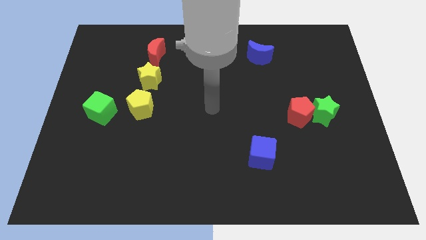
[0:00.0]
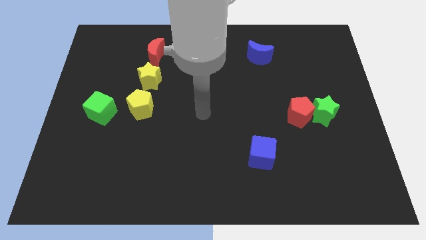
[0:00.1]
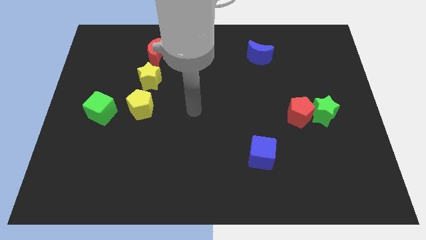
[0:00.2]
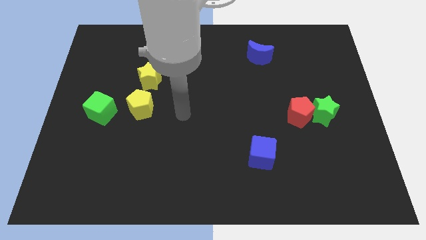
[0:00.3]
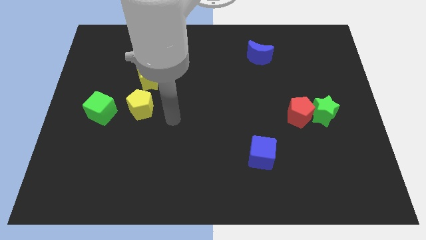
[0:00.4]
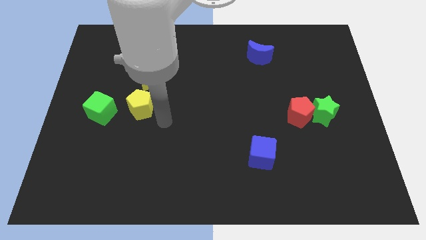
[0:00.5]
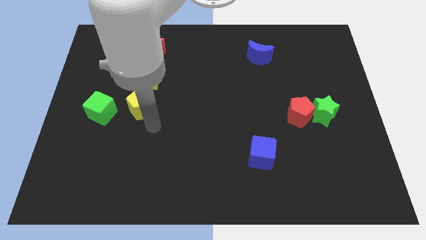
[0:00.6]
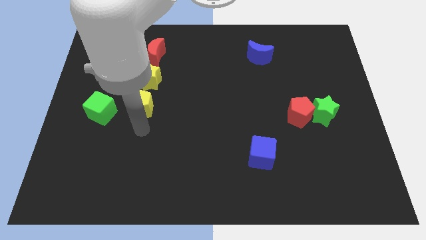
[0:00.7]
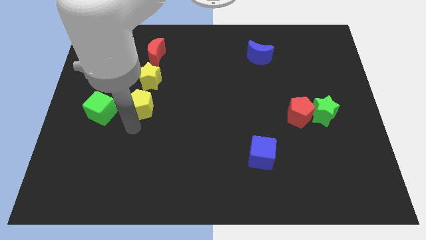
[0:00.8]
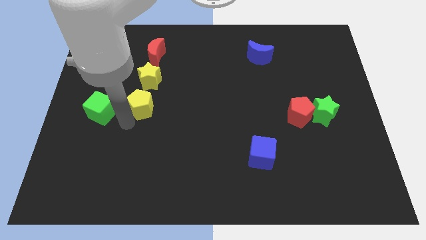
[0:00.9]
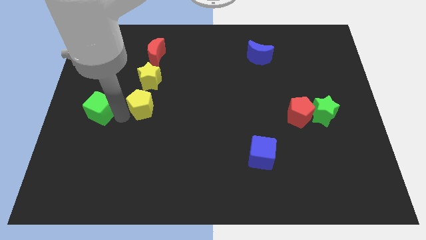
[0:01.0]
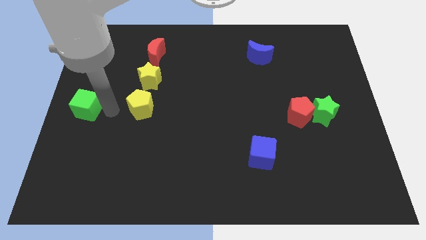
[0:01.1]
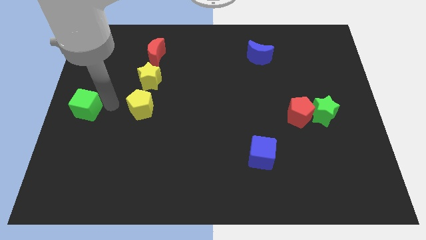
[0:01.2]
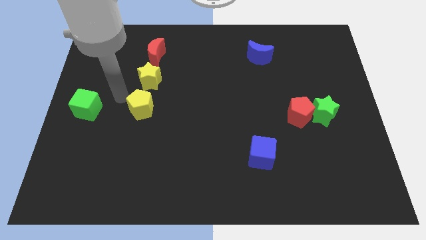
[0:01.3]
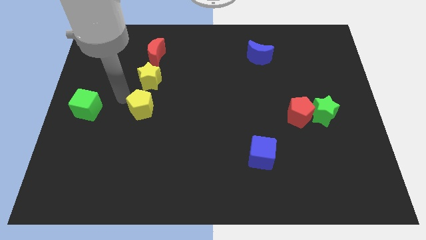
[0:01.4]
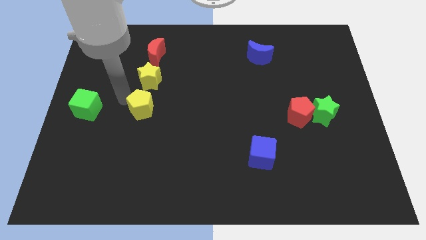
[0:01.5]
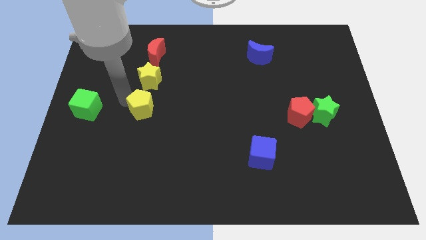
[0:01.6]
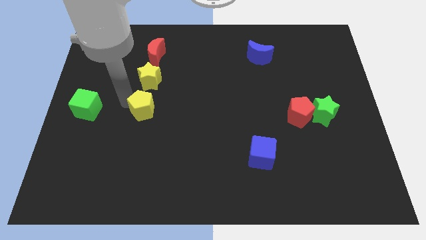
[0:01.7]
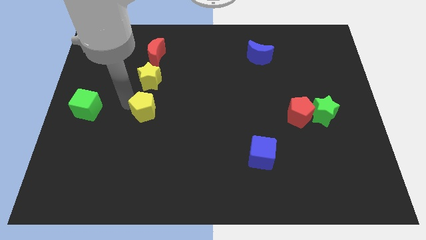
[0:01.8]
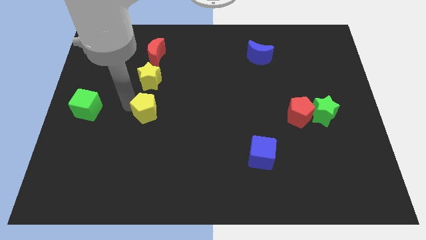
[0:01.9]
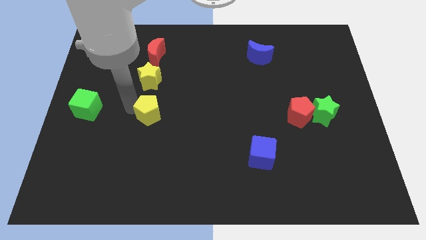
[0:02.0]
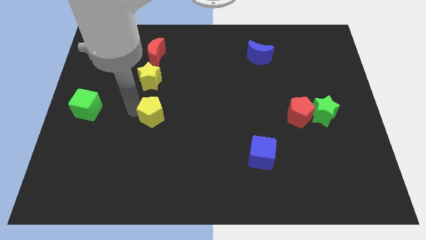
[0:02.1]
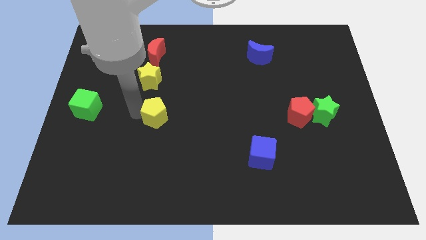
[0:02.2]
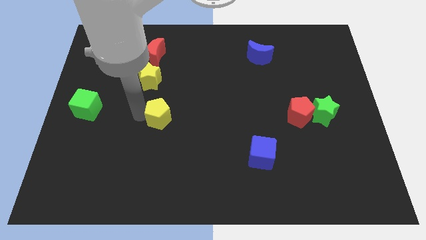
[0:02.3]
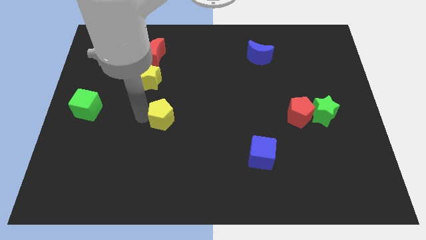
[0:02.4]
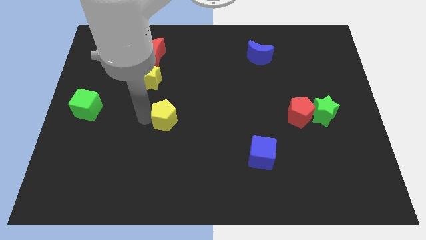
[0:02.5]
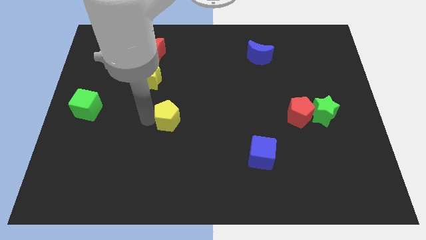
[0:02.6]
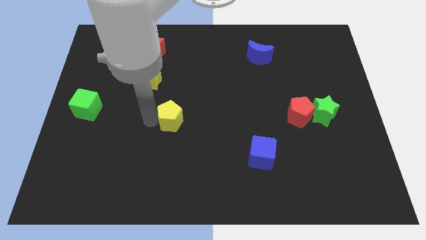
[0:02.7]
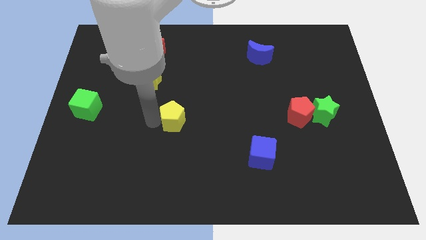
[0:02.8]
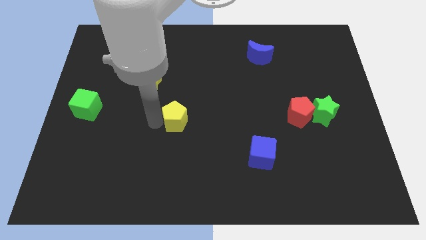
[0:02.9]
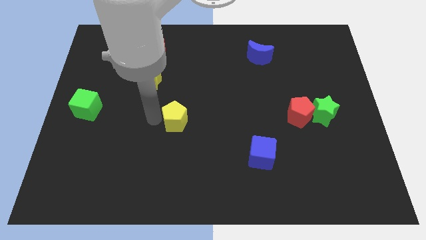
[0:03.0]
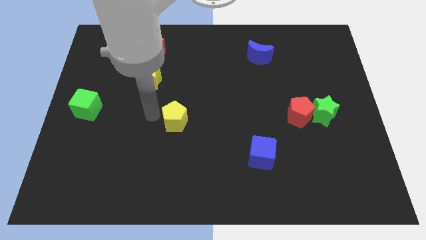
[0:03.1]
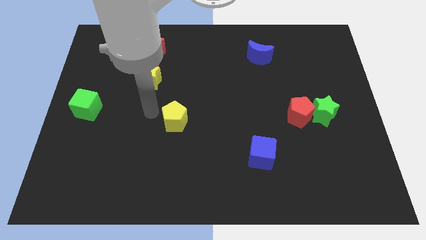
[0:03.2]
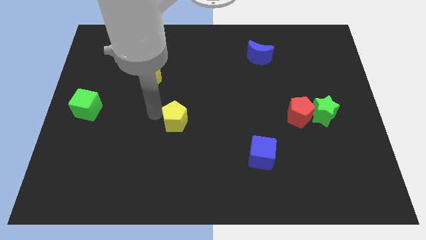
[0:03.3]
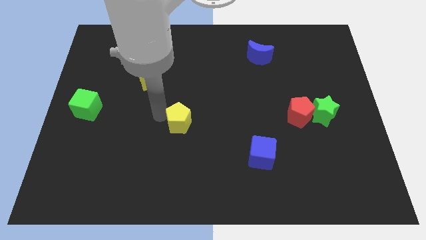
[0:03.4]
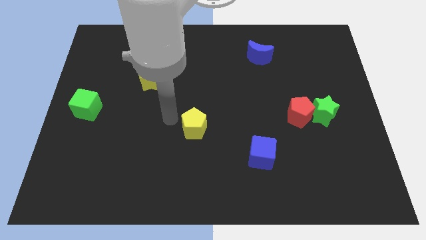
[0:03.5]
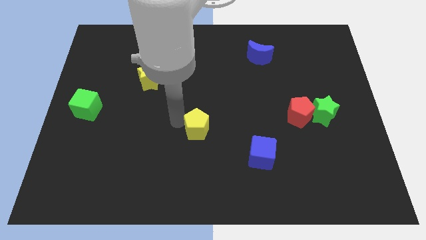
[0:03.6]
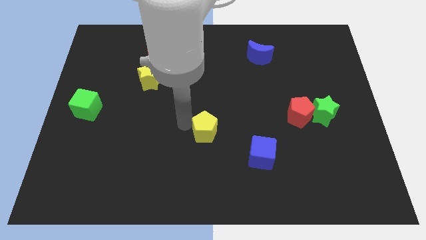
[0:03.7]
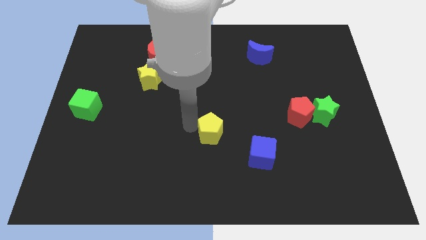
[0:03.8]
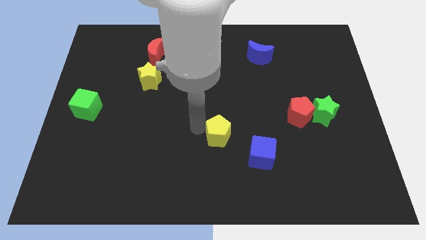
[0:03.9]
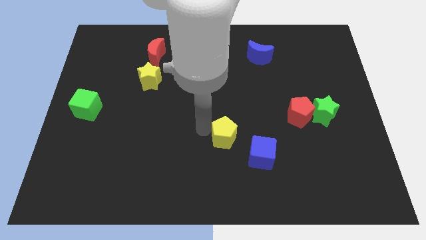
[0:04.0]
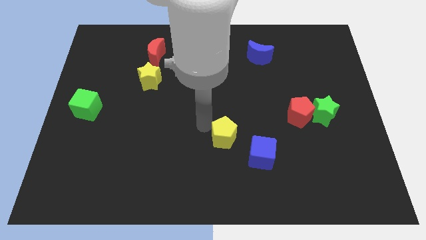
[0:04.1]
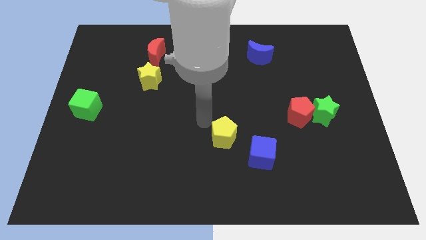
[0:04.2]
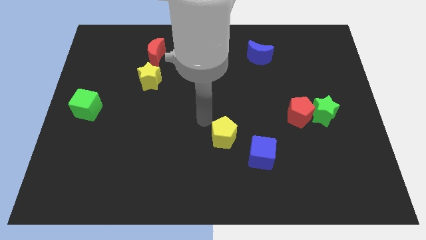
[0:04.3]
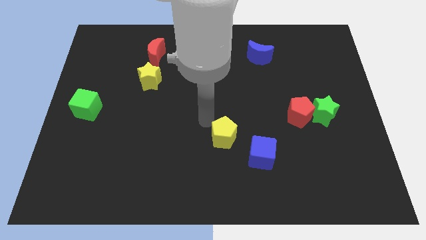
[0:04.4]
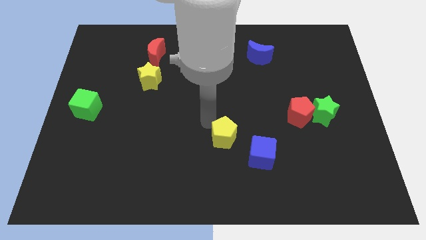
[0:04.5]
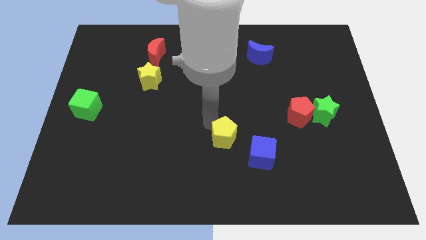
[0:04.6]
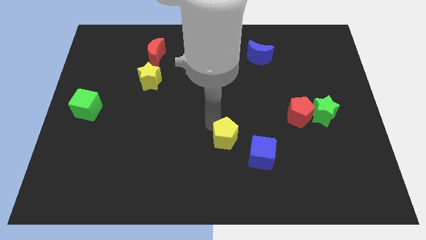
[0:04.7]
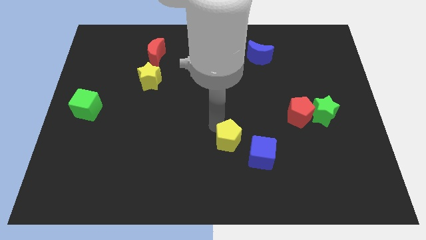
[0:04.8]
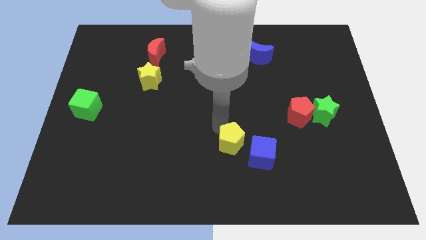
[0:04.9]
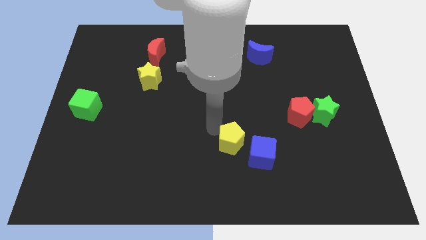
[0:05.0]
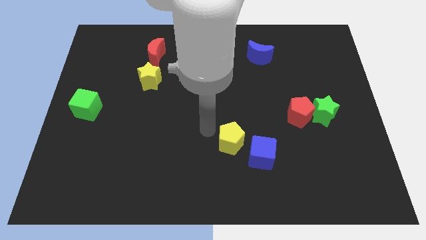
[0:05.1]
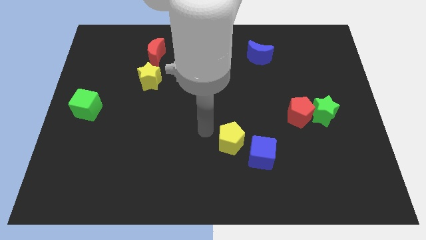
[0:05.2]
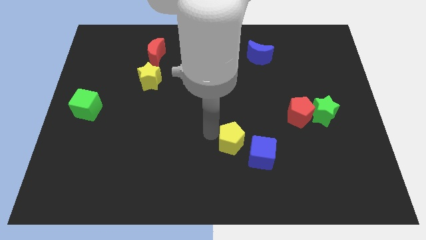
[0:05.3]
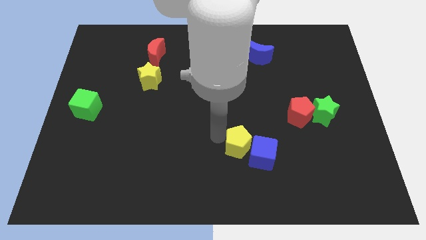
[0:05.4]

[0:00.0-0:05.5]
move the yellow pentagon towards the blue cube

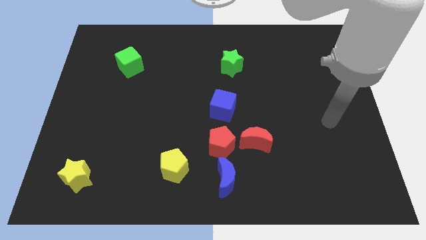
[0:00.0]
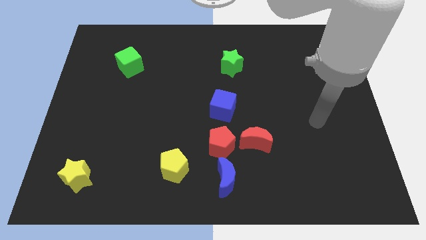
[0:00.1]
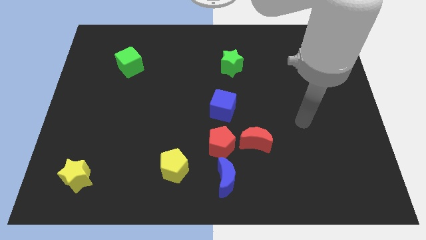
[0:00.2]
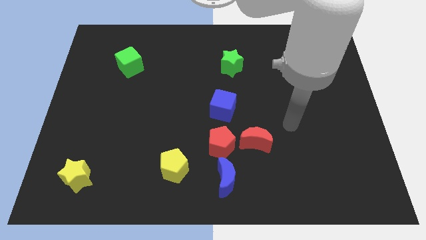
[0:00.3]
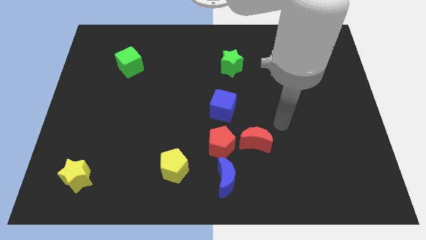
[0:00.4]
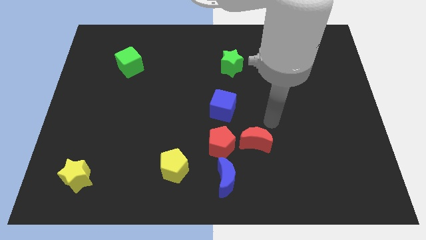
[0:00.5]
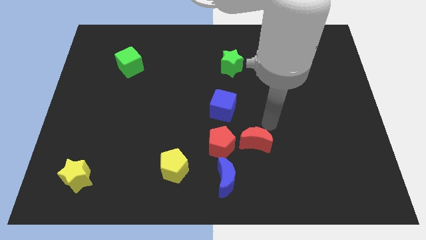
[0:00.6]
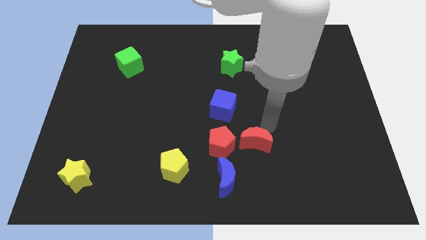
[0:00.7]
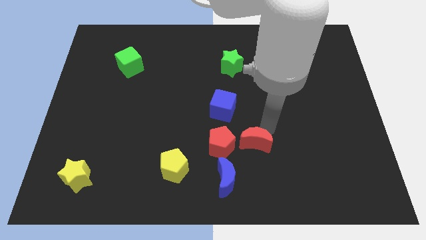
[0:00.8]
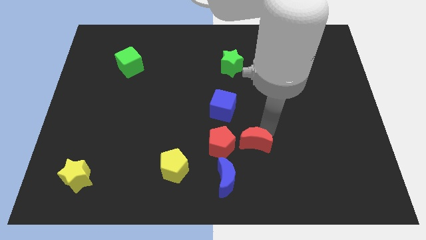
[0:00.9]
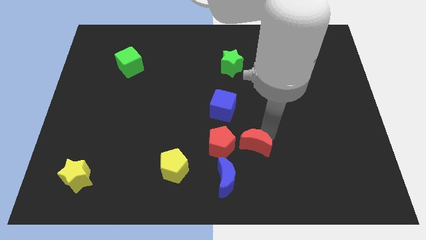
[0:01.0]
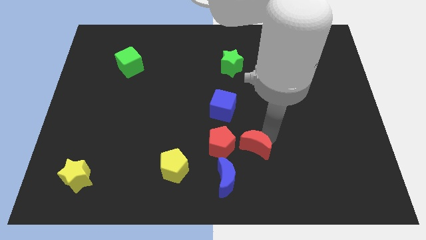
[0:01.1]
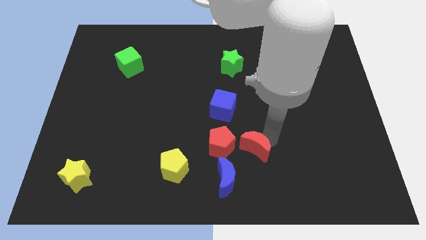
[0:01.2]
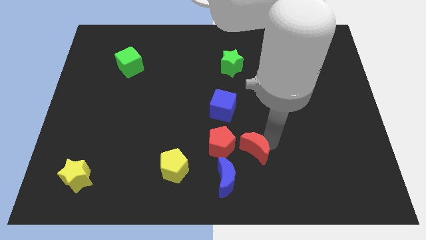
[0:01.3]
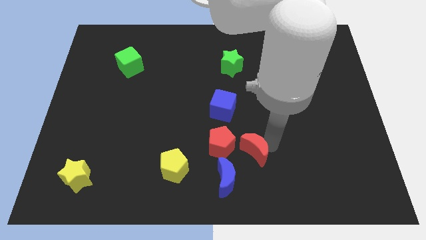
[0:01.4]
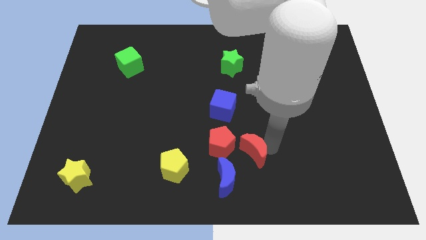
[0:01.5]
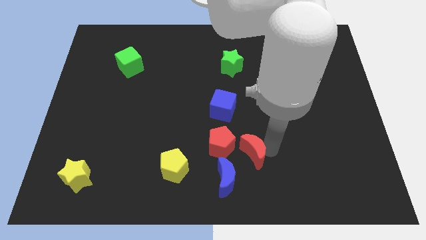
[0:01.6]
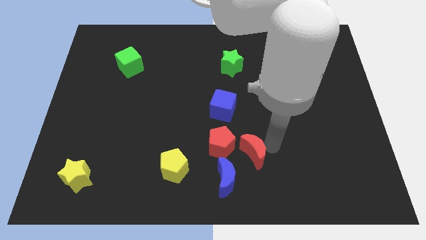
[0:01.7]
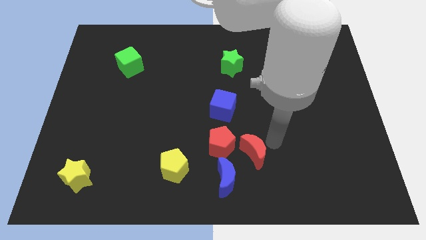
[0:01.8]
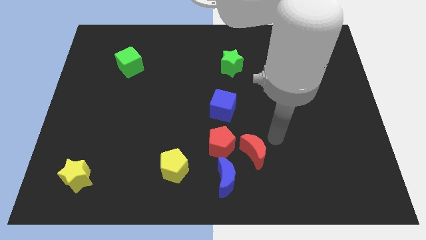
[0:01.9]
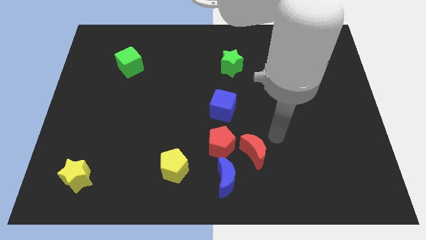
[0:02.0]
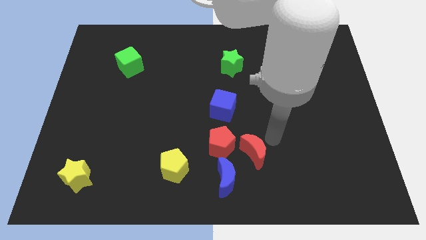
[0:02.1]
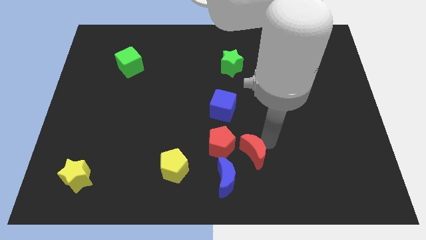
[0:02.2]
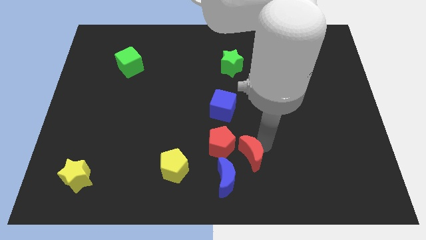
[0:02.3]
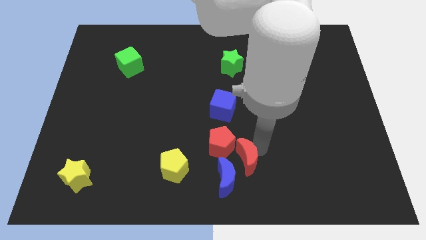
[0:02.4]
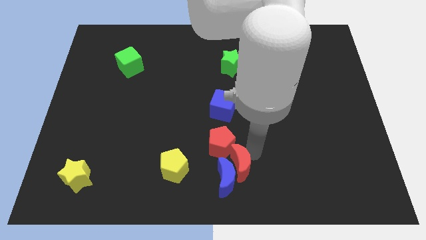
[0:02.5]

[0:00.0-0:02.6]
push the red moon close to the blue moon
